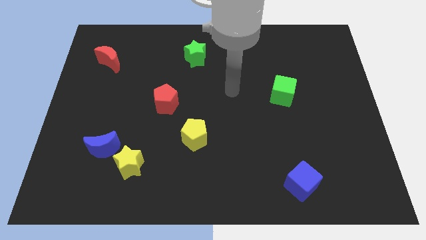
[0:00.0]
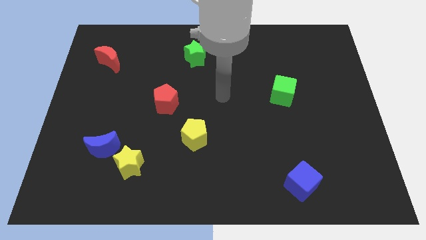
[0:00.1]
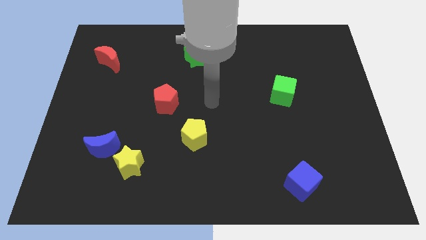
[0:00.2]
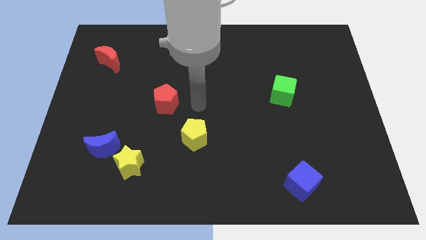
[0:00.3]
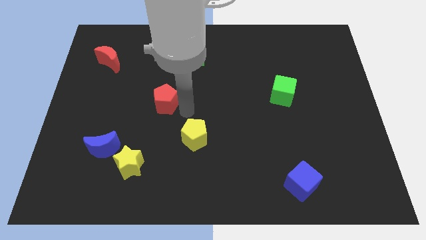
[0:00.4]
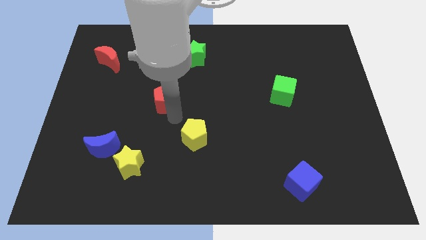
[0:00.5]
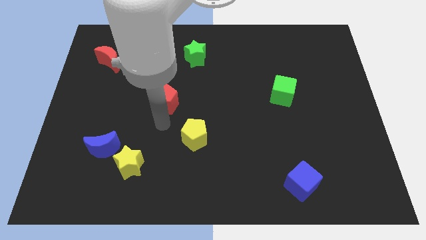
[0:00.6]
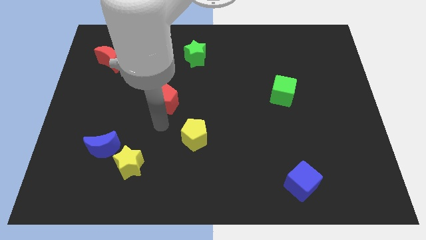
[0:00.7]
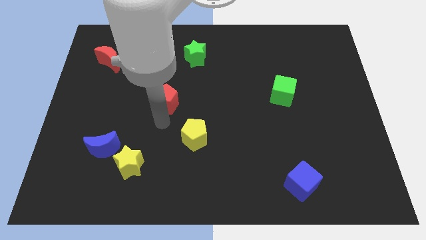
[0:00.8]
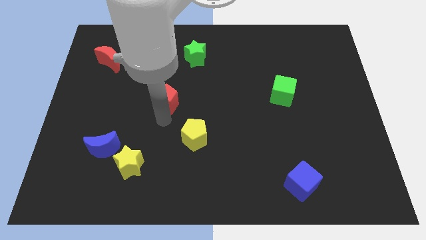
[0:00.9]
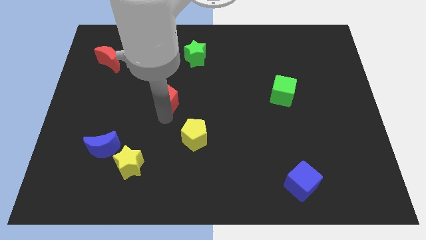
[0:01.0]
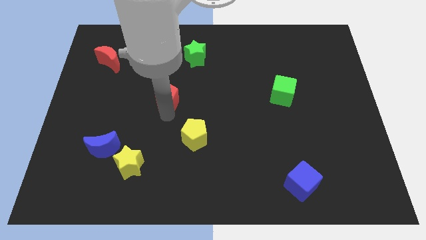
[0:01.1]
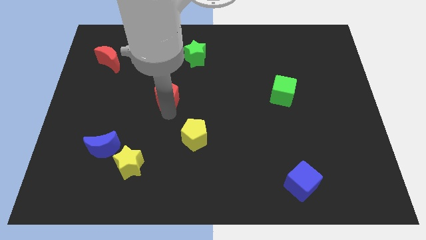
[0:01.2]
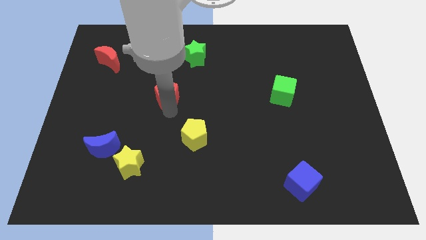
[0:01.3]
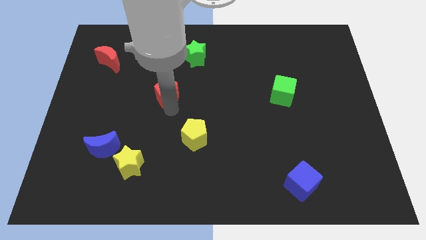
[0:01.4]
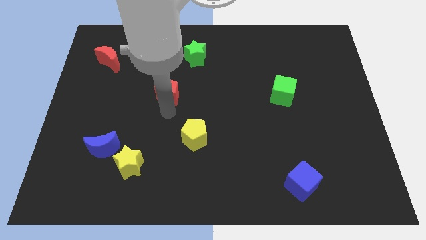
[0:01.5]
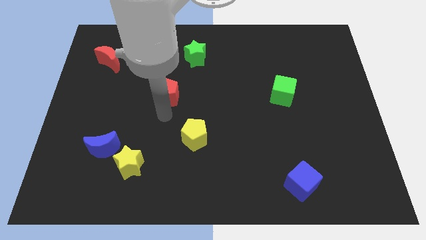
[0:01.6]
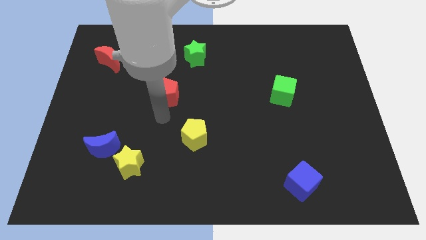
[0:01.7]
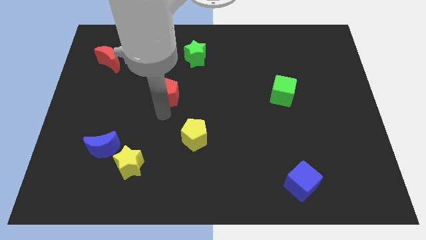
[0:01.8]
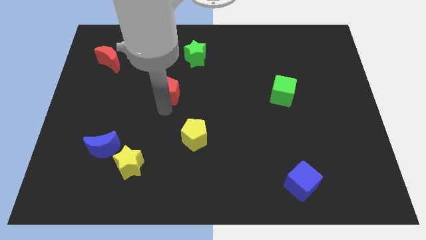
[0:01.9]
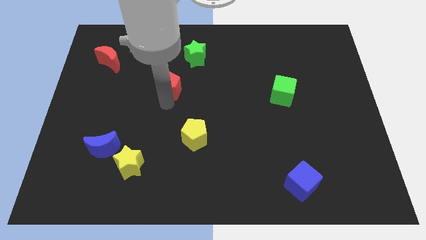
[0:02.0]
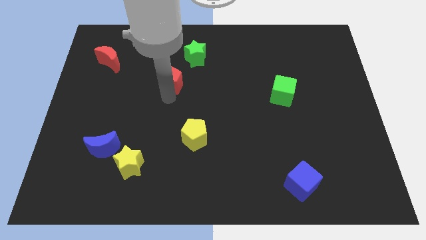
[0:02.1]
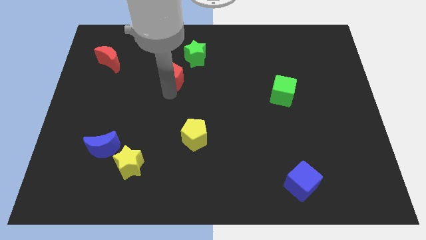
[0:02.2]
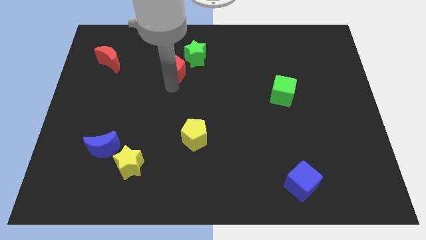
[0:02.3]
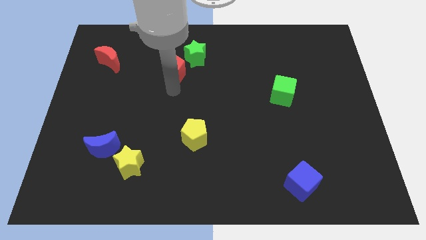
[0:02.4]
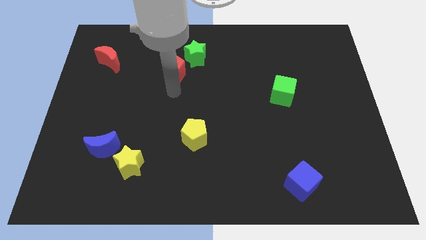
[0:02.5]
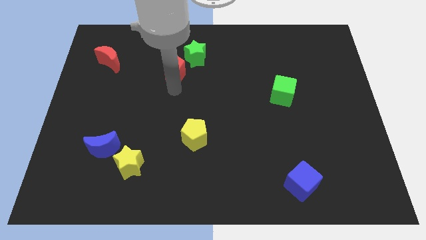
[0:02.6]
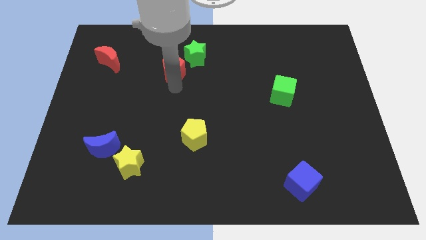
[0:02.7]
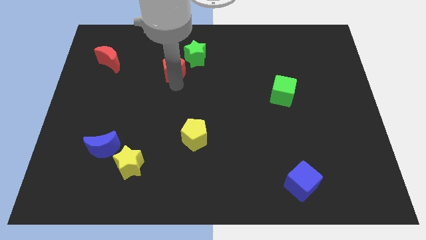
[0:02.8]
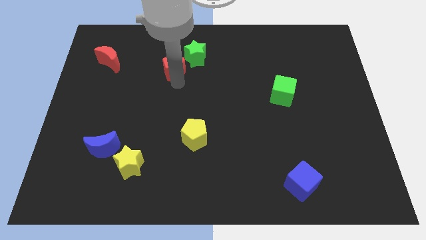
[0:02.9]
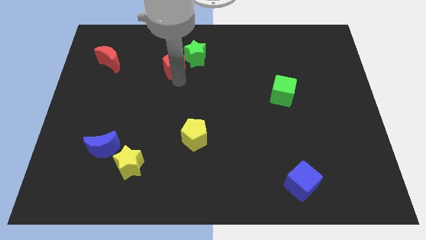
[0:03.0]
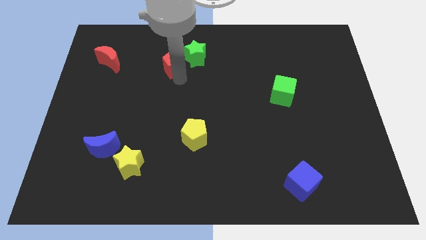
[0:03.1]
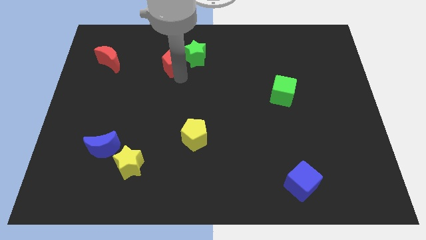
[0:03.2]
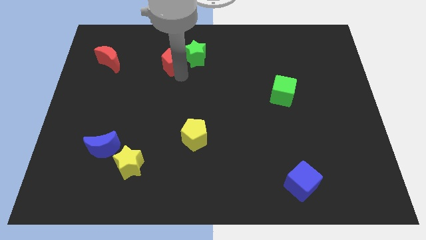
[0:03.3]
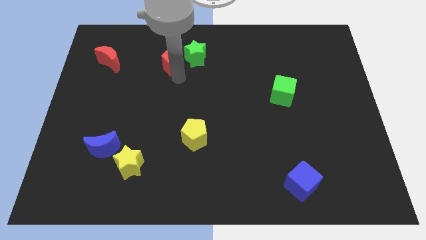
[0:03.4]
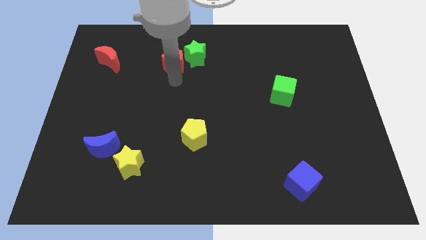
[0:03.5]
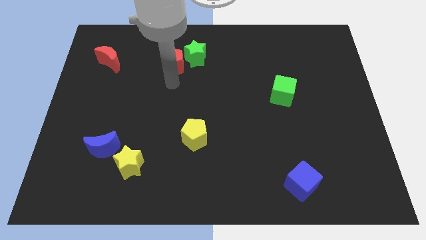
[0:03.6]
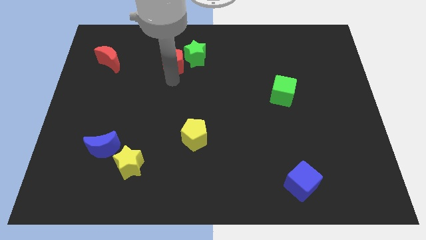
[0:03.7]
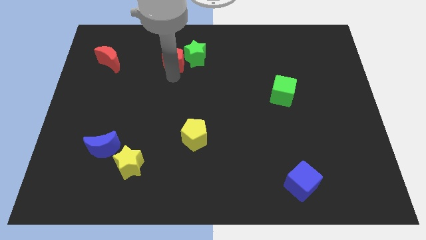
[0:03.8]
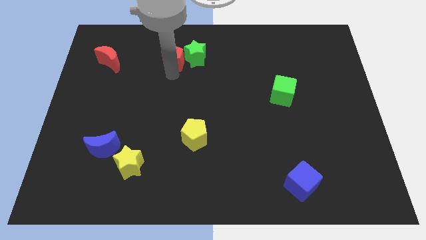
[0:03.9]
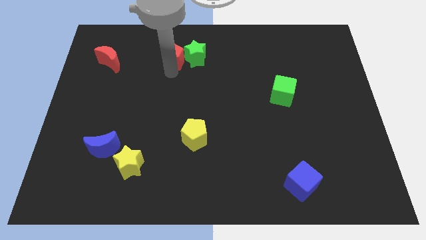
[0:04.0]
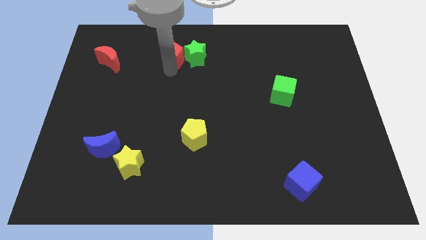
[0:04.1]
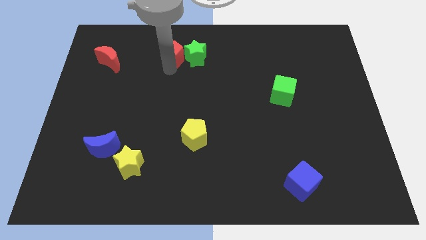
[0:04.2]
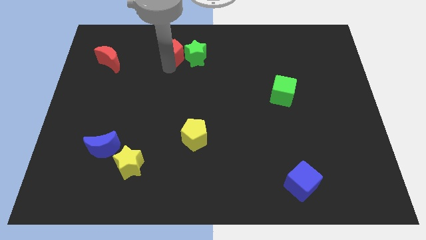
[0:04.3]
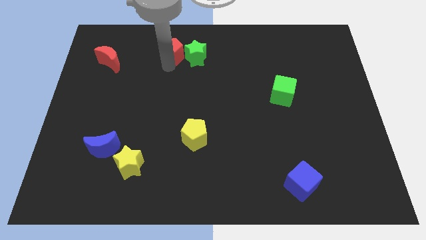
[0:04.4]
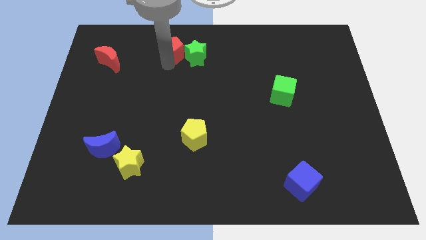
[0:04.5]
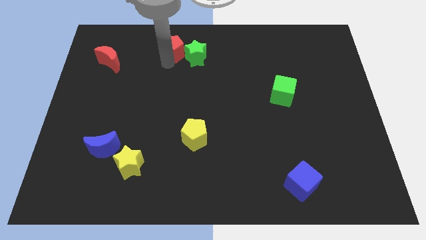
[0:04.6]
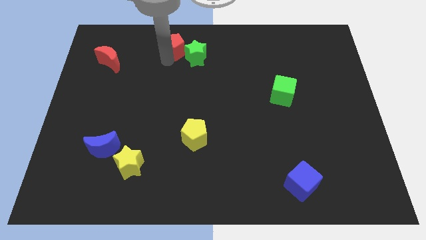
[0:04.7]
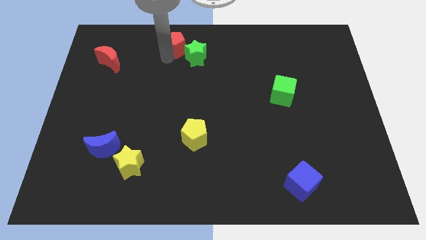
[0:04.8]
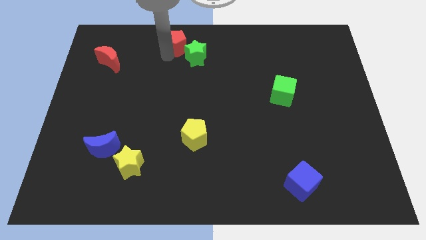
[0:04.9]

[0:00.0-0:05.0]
put the red pentagon to the top side

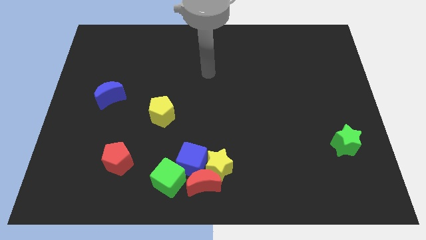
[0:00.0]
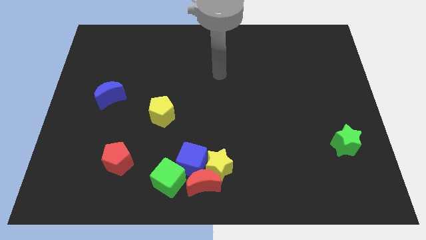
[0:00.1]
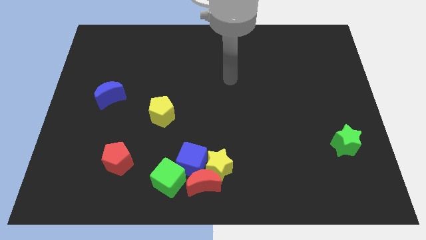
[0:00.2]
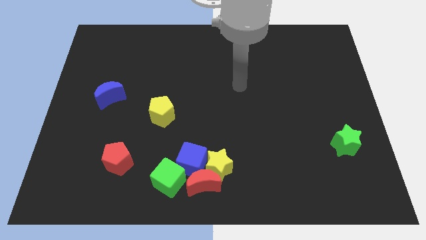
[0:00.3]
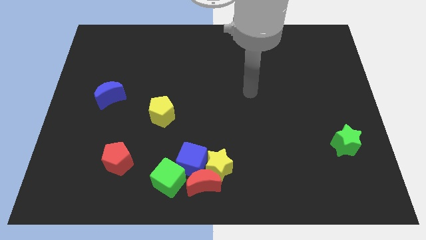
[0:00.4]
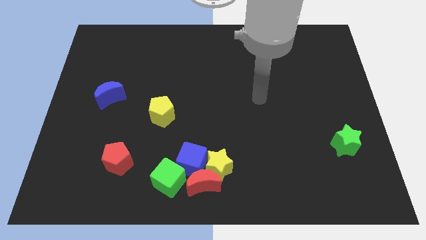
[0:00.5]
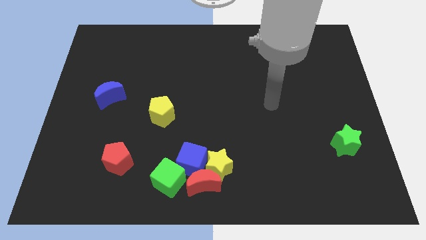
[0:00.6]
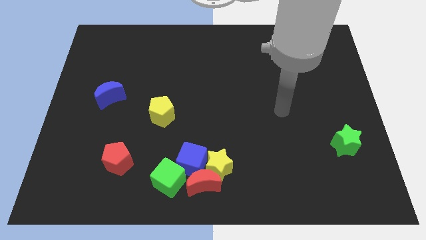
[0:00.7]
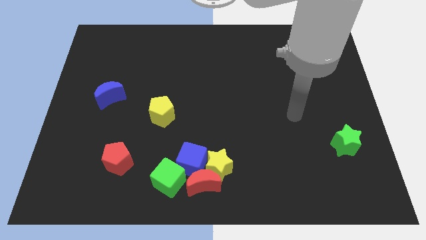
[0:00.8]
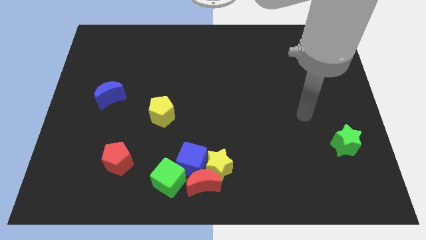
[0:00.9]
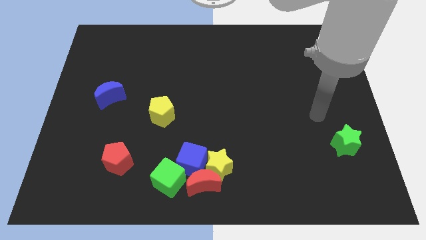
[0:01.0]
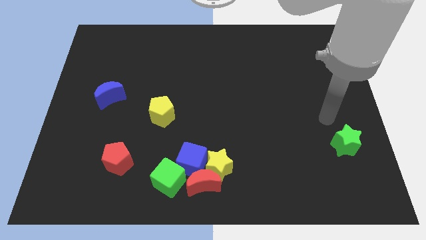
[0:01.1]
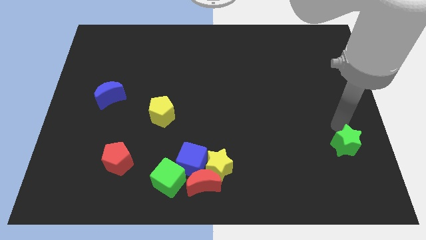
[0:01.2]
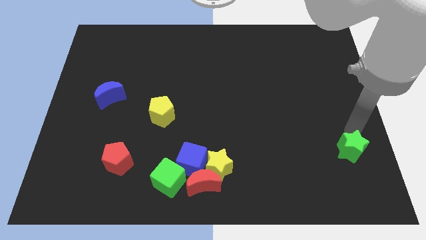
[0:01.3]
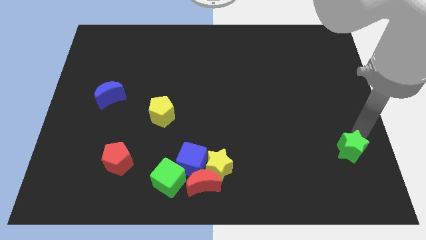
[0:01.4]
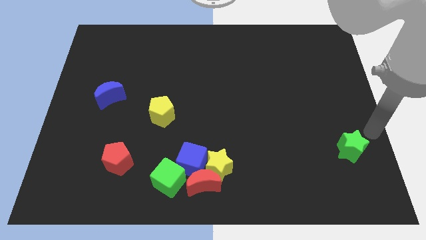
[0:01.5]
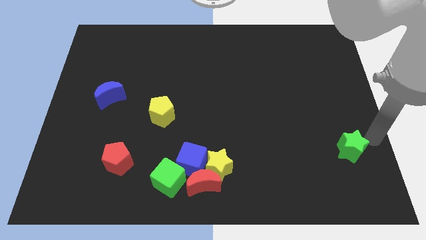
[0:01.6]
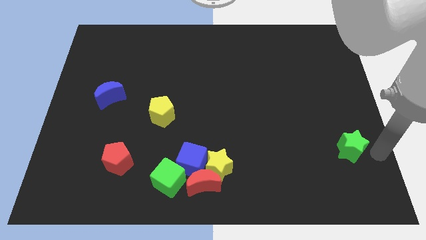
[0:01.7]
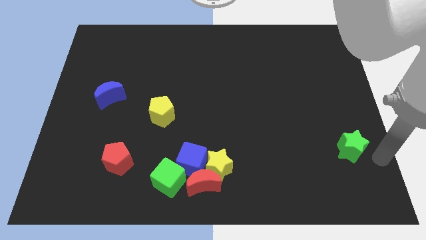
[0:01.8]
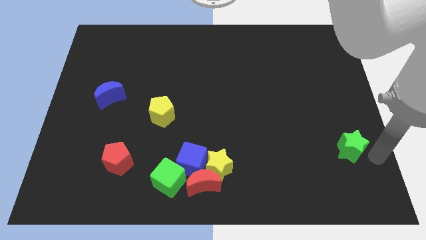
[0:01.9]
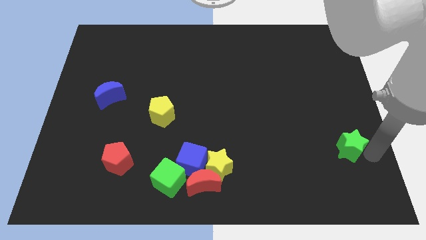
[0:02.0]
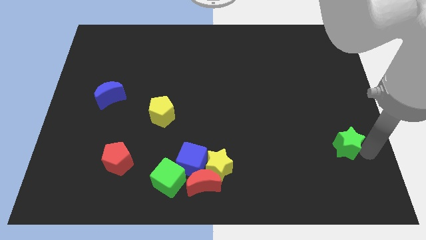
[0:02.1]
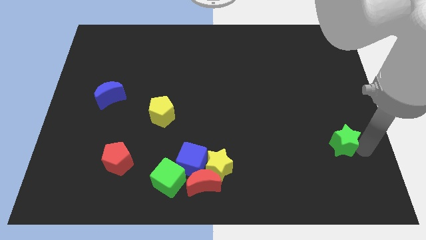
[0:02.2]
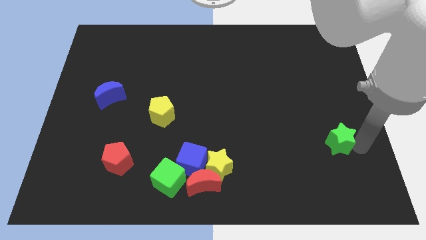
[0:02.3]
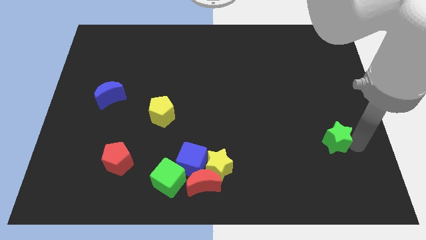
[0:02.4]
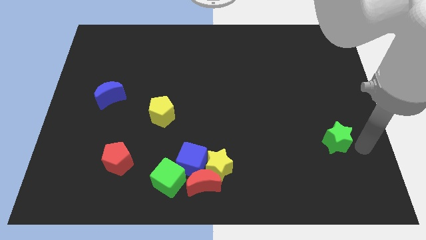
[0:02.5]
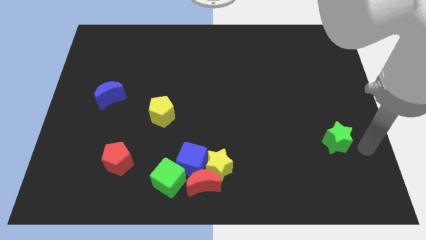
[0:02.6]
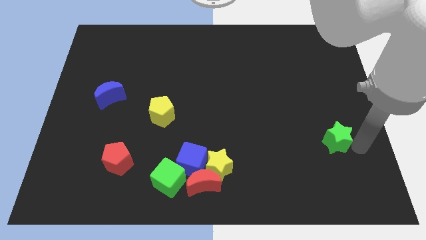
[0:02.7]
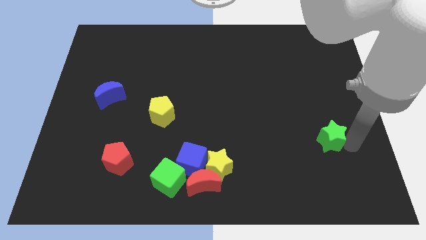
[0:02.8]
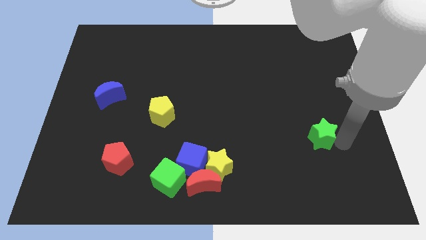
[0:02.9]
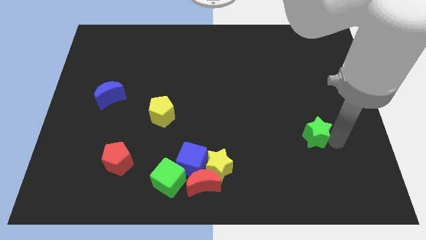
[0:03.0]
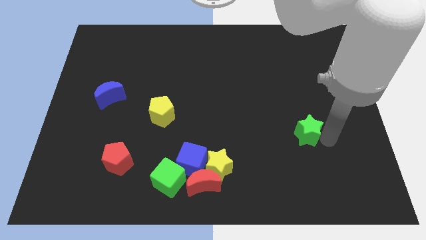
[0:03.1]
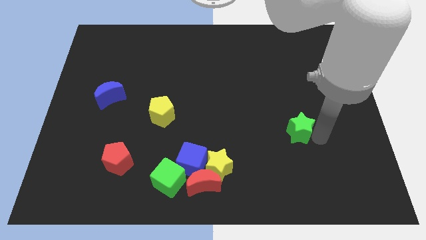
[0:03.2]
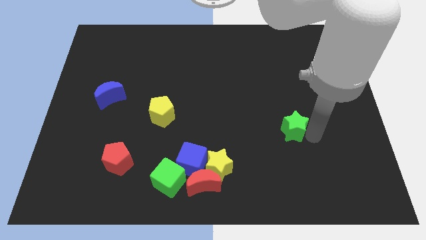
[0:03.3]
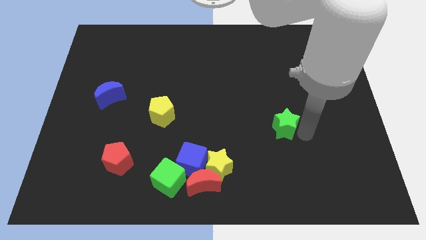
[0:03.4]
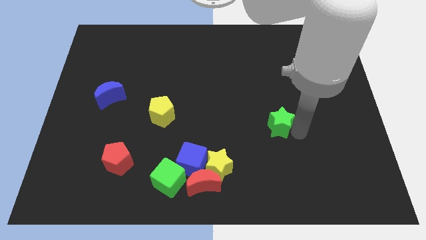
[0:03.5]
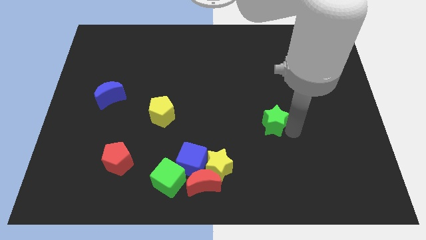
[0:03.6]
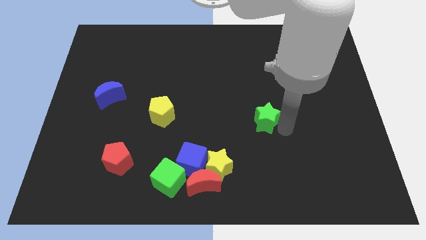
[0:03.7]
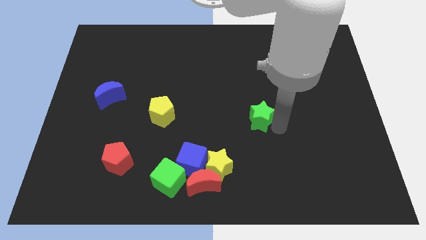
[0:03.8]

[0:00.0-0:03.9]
move the green star to the middle of the board
